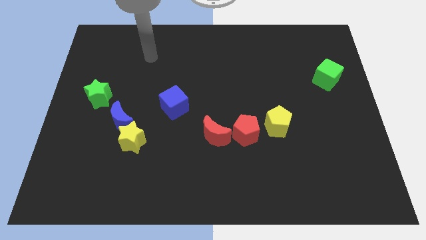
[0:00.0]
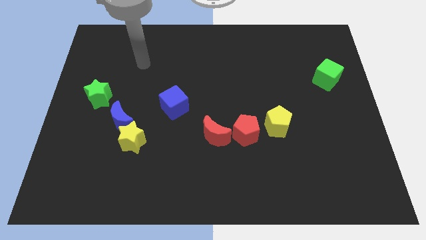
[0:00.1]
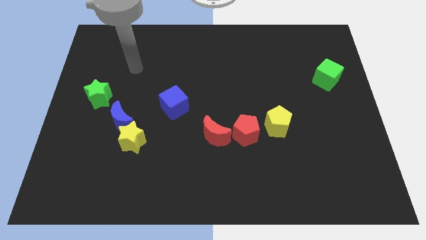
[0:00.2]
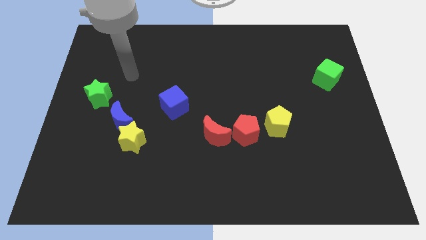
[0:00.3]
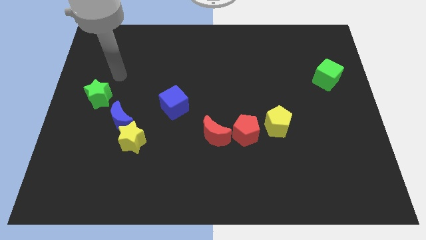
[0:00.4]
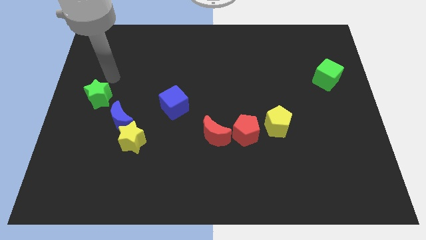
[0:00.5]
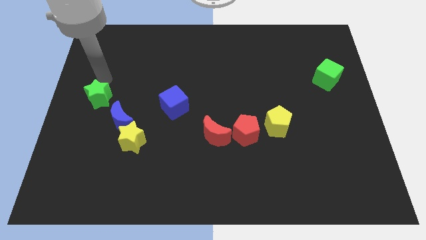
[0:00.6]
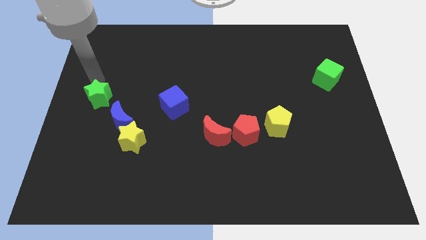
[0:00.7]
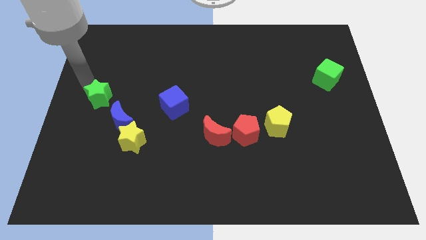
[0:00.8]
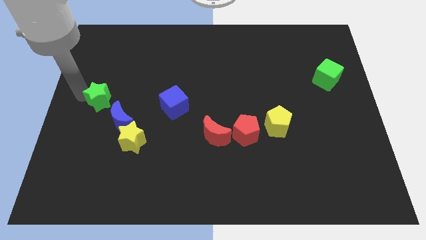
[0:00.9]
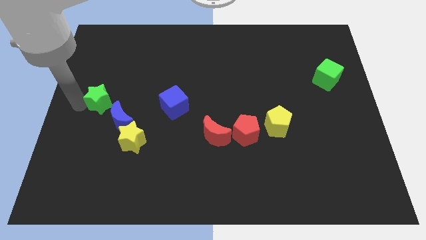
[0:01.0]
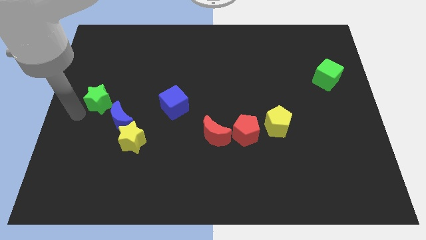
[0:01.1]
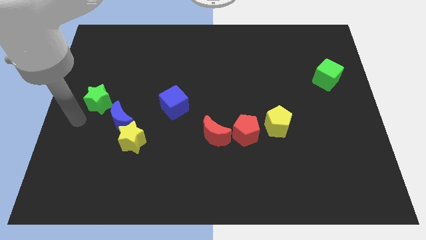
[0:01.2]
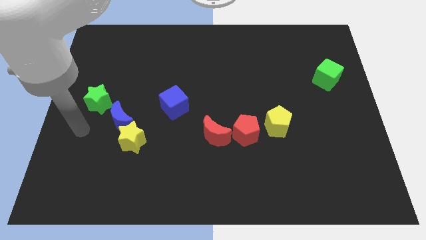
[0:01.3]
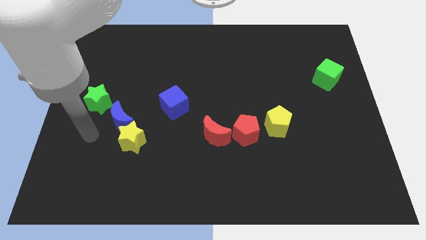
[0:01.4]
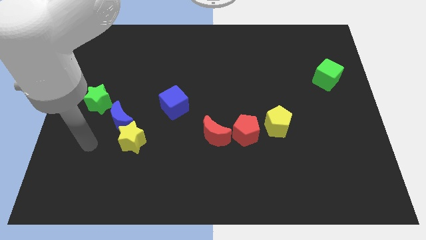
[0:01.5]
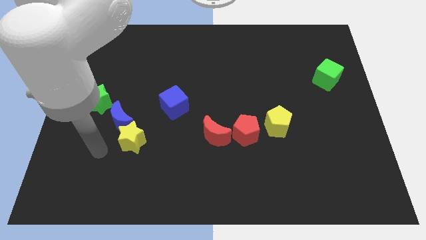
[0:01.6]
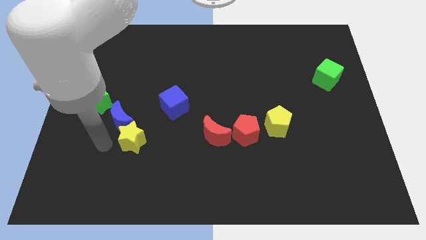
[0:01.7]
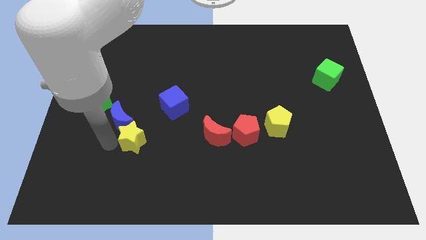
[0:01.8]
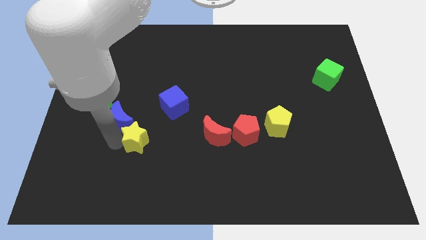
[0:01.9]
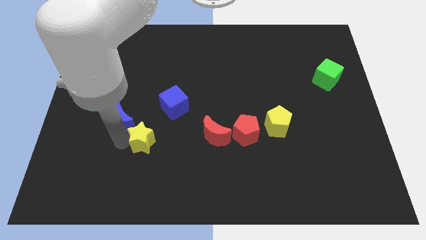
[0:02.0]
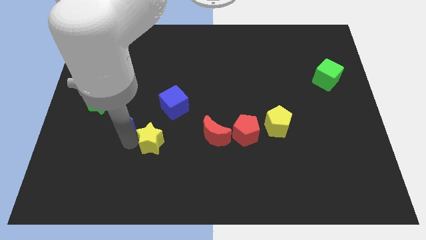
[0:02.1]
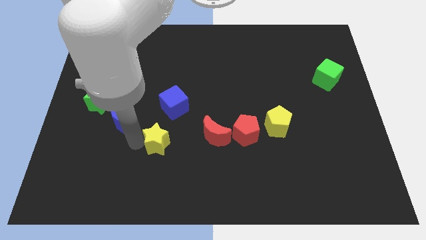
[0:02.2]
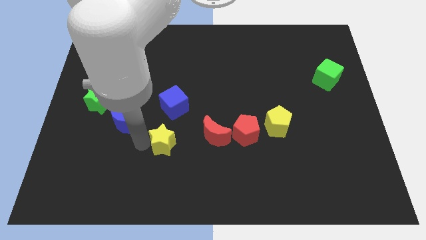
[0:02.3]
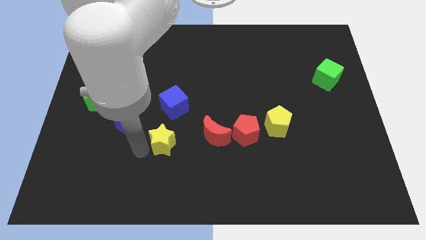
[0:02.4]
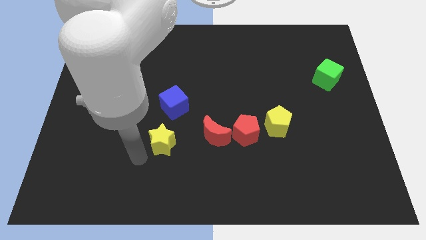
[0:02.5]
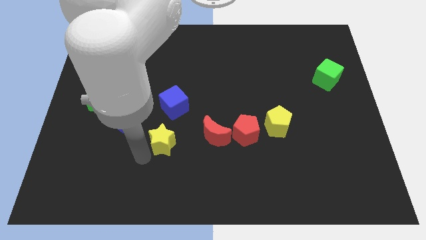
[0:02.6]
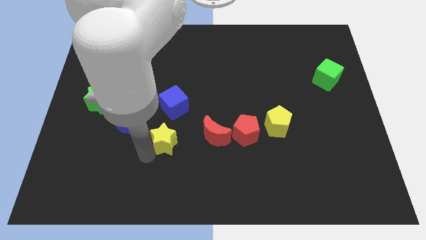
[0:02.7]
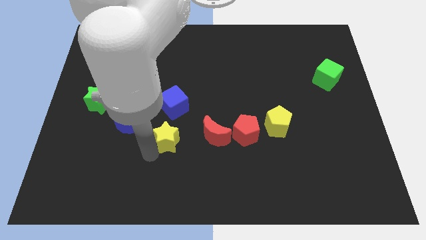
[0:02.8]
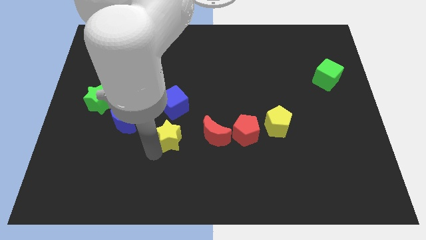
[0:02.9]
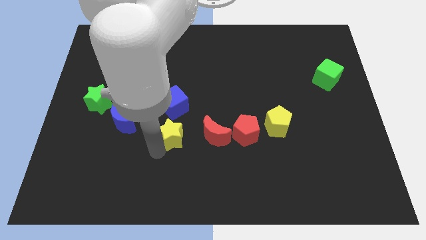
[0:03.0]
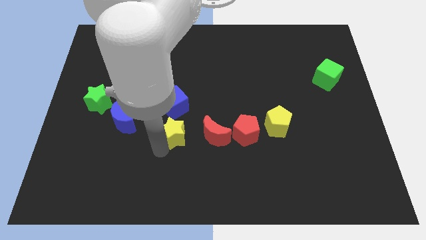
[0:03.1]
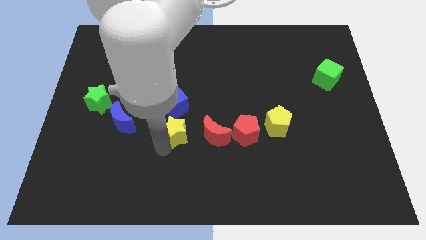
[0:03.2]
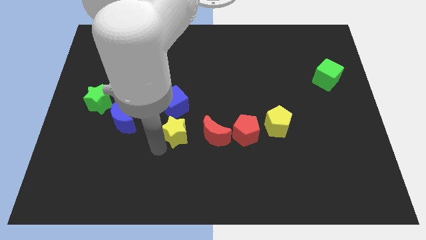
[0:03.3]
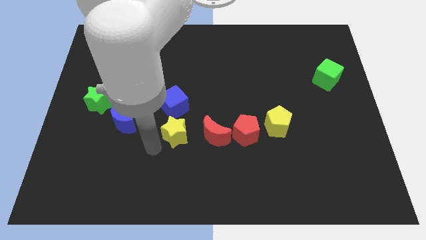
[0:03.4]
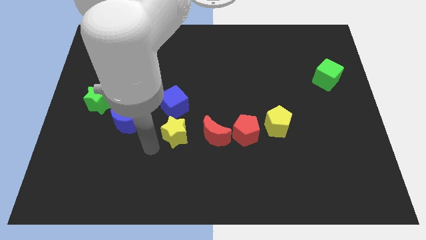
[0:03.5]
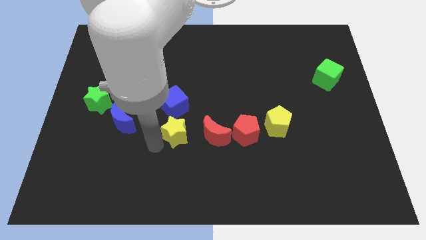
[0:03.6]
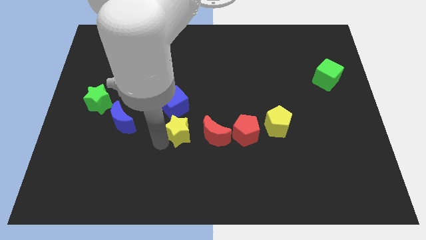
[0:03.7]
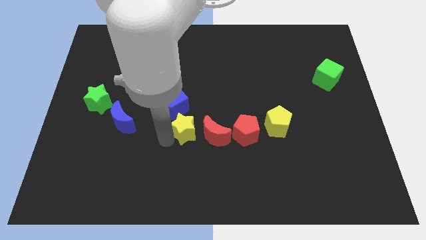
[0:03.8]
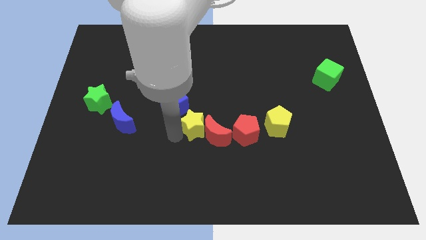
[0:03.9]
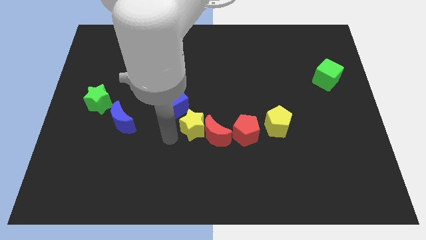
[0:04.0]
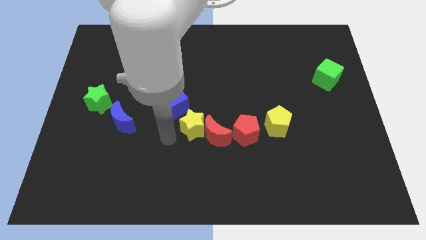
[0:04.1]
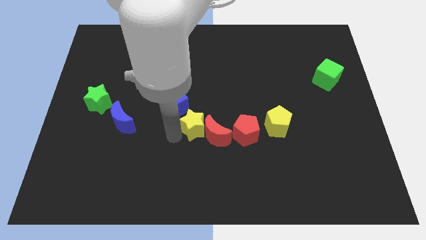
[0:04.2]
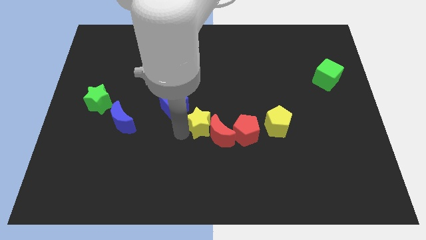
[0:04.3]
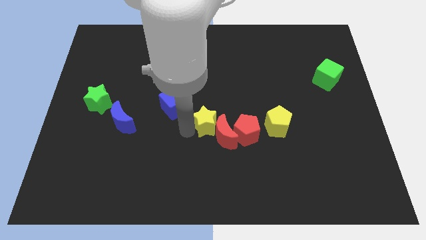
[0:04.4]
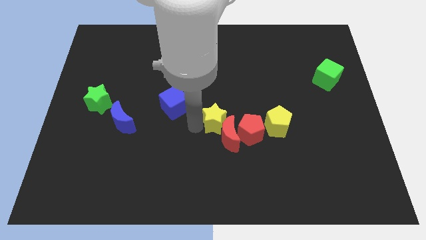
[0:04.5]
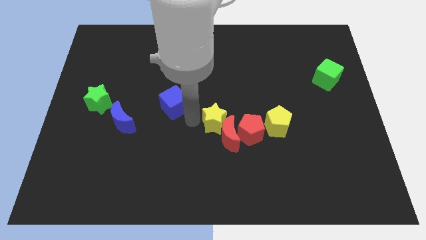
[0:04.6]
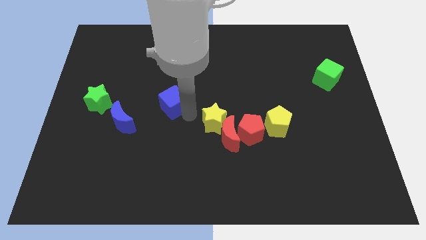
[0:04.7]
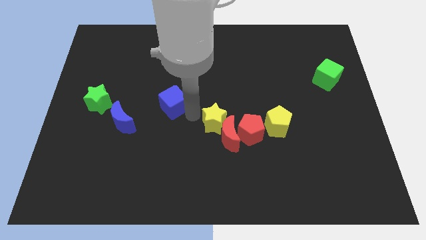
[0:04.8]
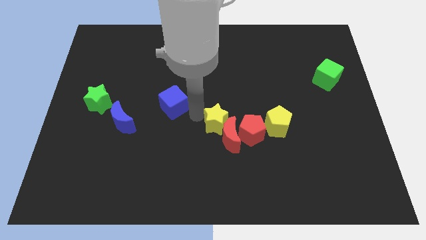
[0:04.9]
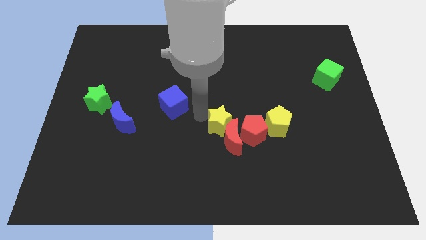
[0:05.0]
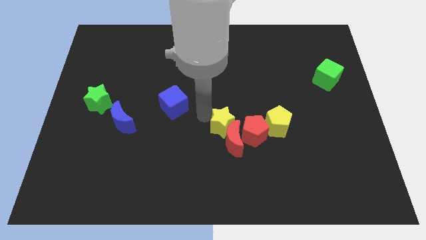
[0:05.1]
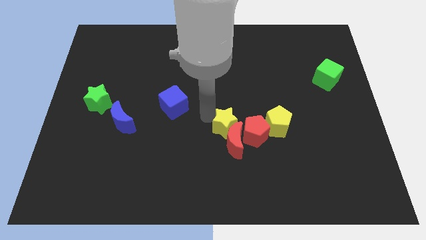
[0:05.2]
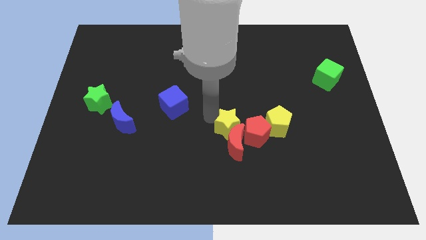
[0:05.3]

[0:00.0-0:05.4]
push the yellow star next to the red pentagon

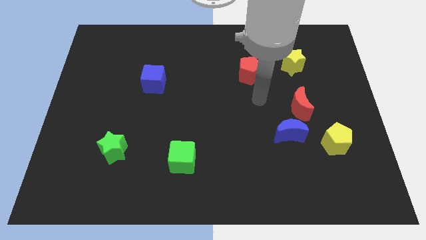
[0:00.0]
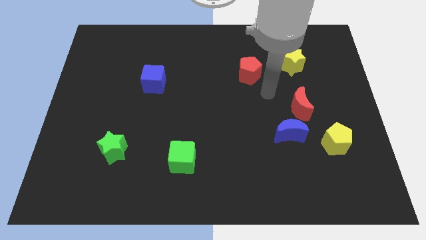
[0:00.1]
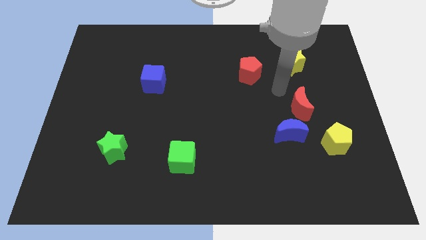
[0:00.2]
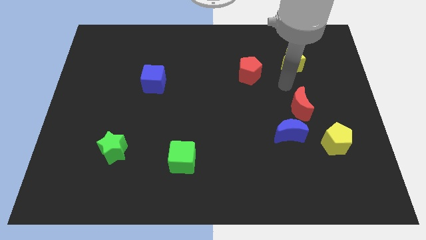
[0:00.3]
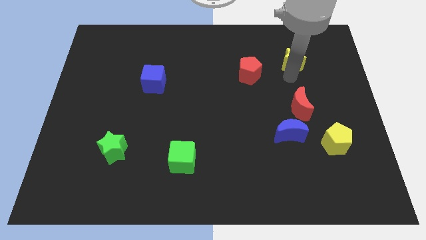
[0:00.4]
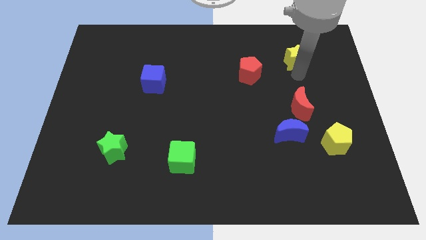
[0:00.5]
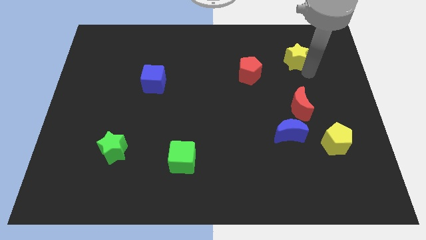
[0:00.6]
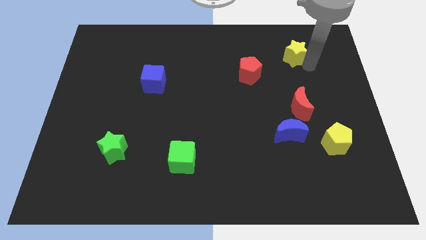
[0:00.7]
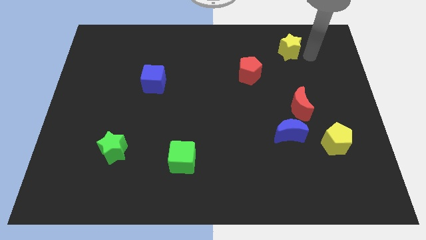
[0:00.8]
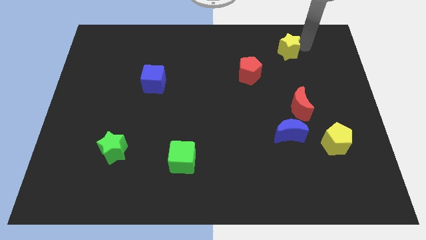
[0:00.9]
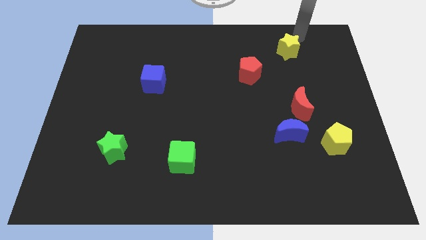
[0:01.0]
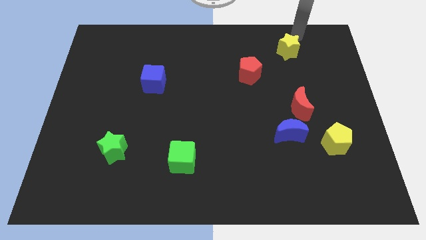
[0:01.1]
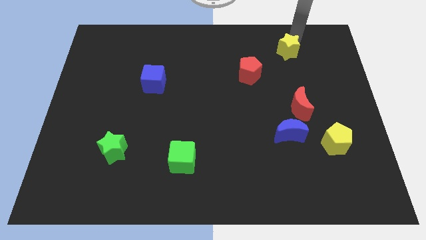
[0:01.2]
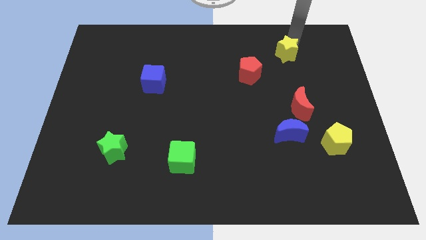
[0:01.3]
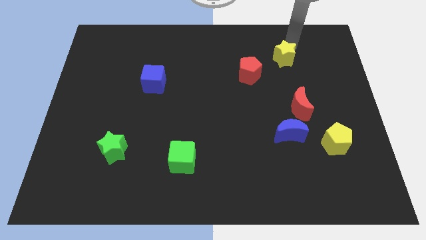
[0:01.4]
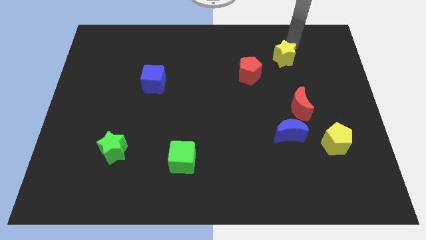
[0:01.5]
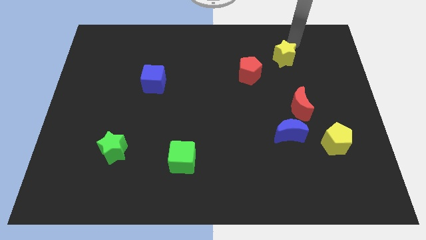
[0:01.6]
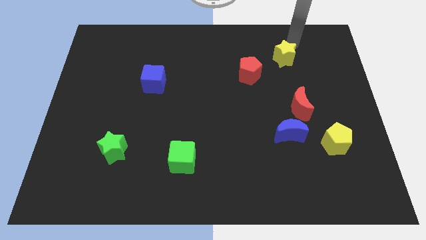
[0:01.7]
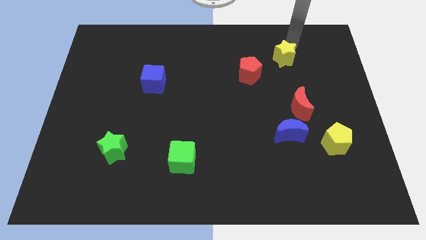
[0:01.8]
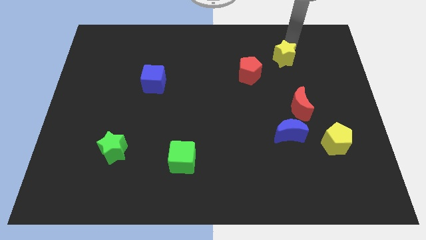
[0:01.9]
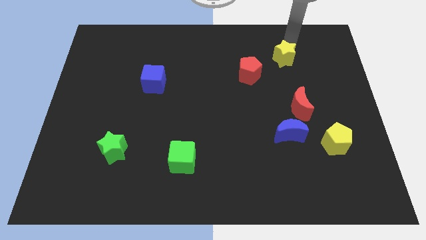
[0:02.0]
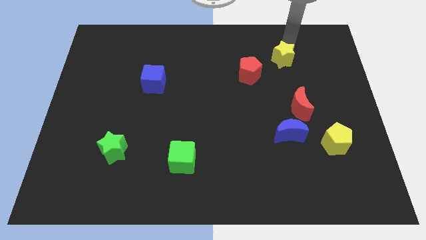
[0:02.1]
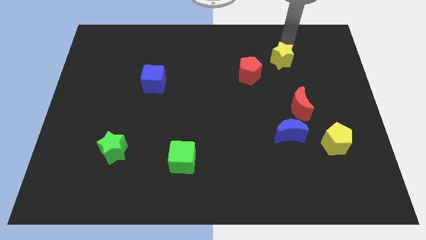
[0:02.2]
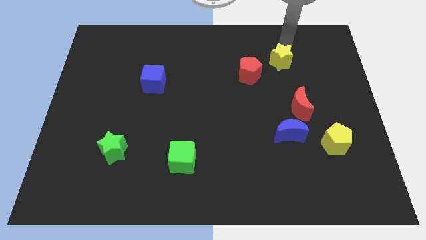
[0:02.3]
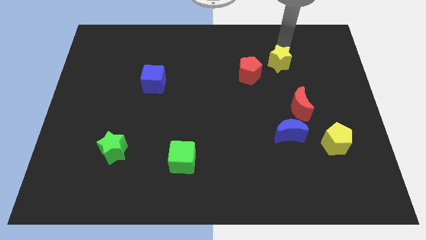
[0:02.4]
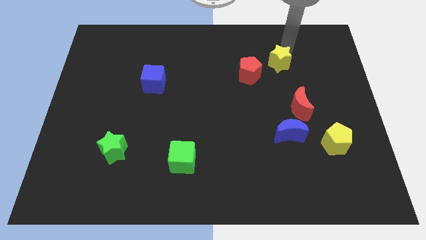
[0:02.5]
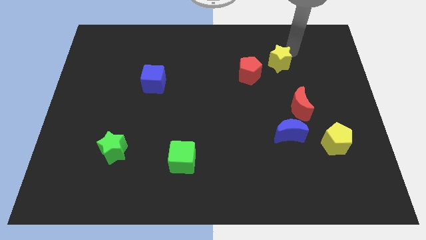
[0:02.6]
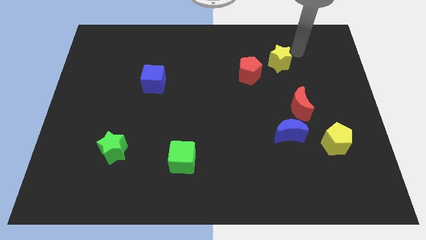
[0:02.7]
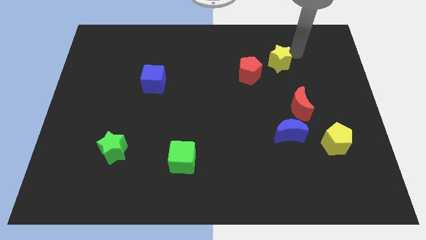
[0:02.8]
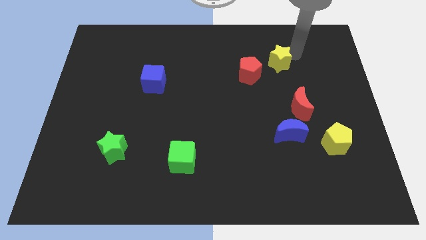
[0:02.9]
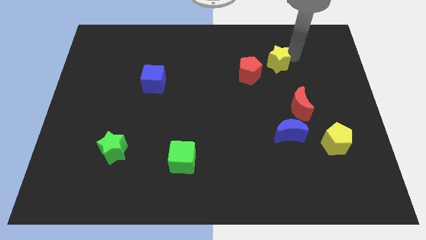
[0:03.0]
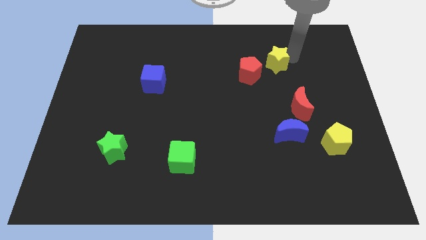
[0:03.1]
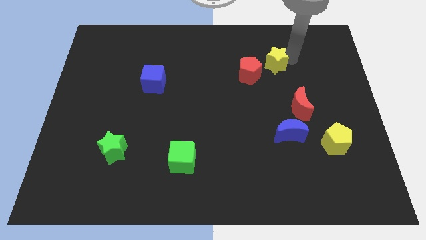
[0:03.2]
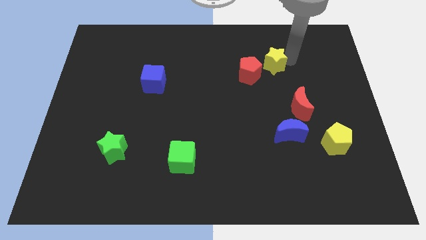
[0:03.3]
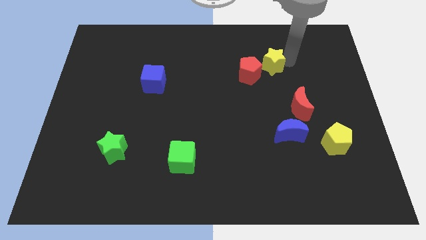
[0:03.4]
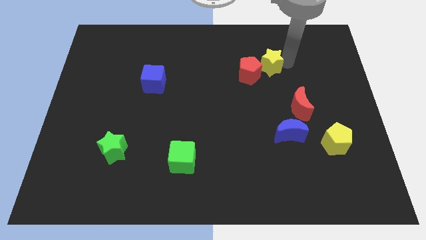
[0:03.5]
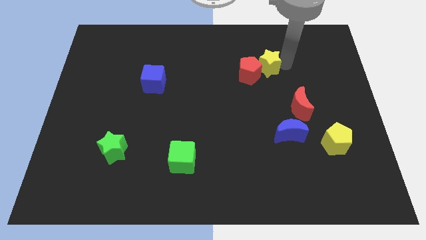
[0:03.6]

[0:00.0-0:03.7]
move the yellow star to the red pentagon
